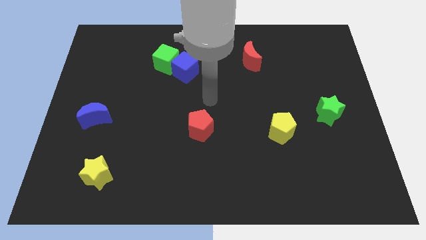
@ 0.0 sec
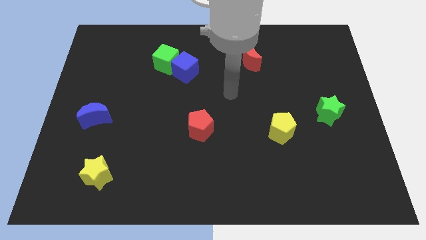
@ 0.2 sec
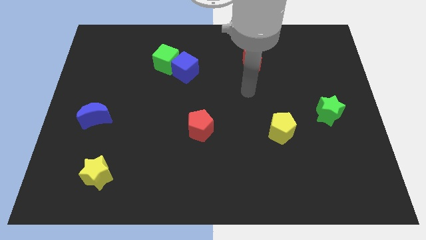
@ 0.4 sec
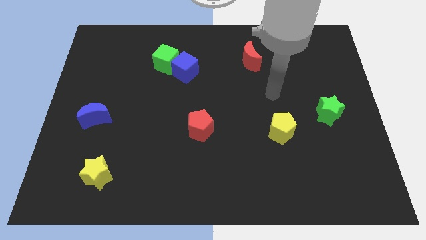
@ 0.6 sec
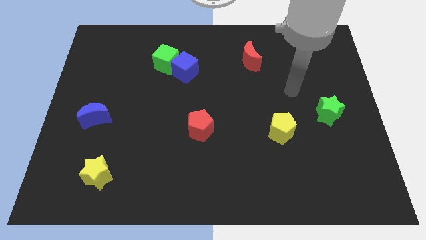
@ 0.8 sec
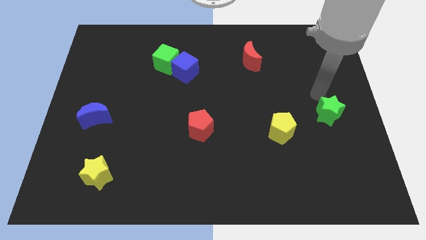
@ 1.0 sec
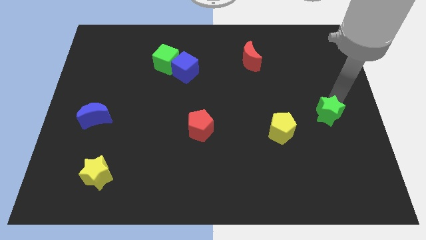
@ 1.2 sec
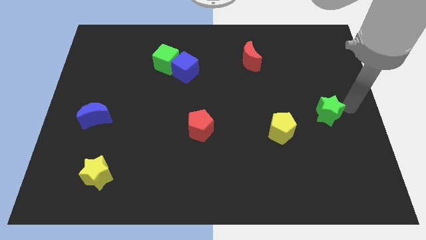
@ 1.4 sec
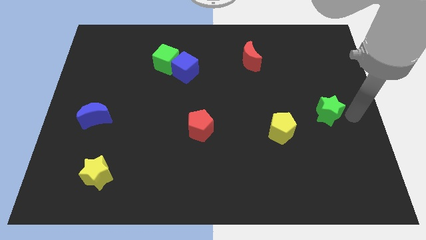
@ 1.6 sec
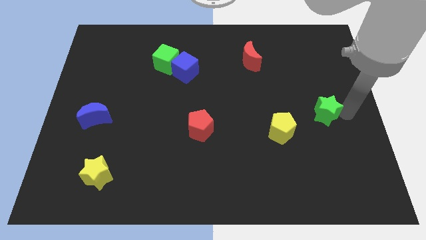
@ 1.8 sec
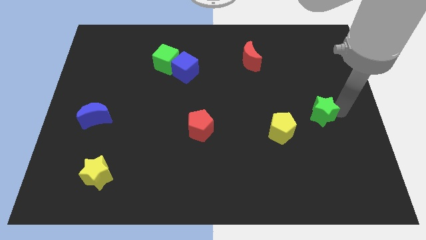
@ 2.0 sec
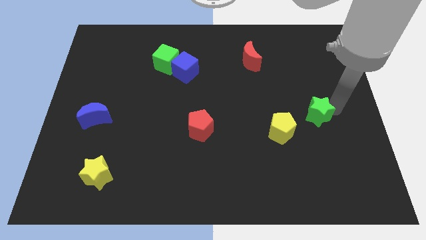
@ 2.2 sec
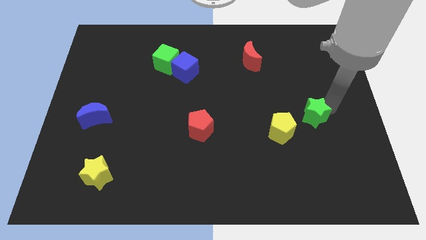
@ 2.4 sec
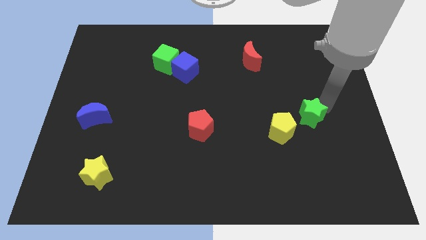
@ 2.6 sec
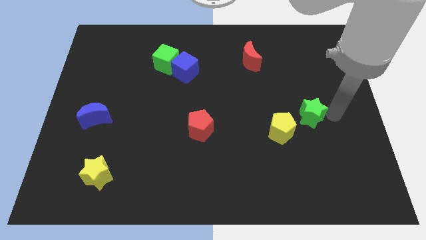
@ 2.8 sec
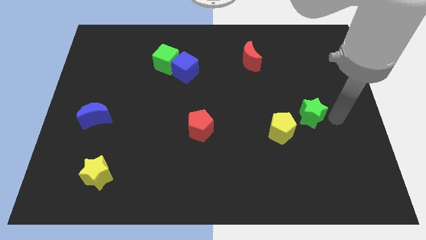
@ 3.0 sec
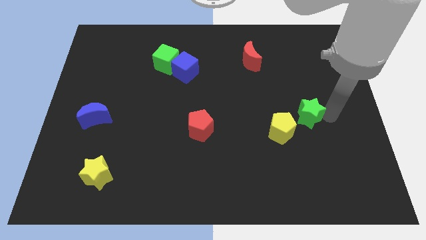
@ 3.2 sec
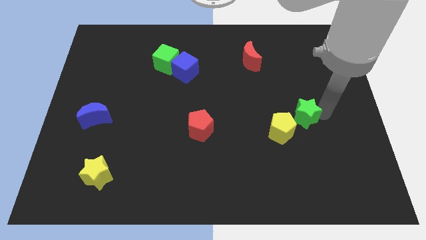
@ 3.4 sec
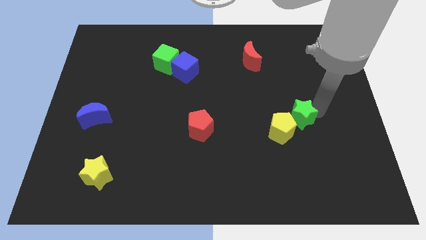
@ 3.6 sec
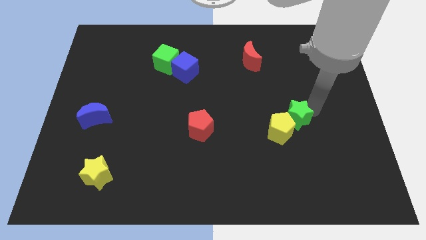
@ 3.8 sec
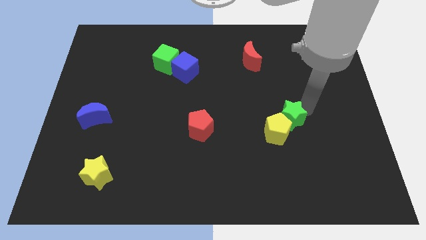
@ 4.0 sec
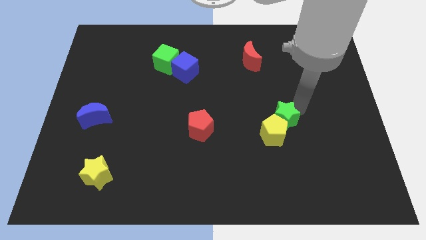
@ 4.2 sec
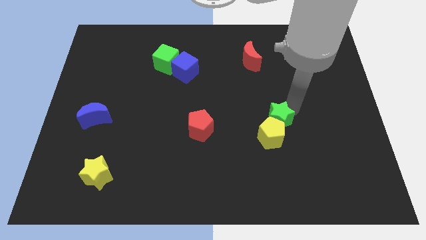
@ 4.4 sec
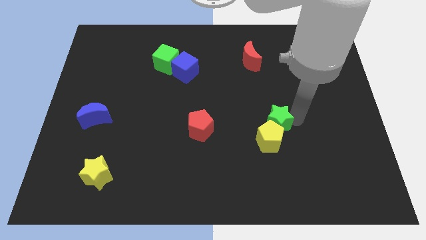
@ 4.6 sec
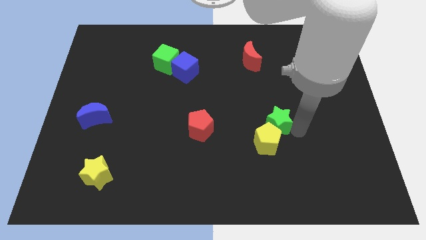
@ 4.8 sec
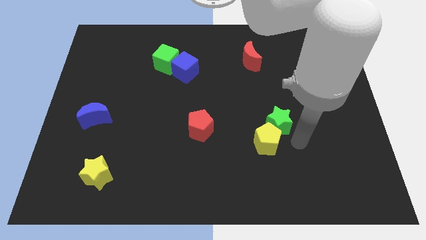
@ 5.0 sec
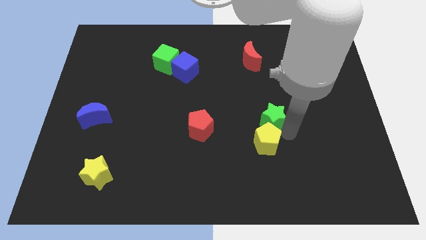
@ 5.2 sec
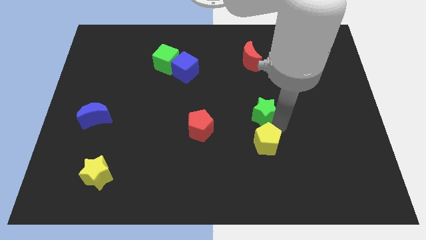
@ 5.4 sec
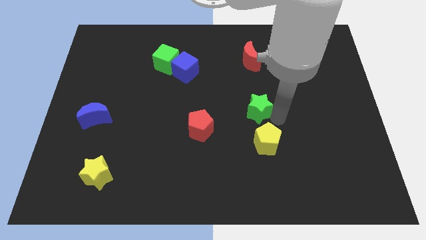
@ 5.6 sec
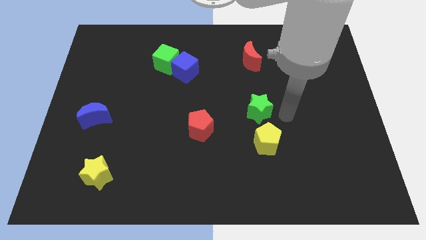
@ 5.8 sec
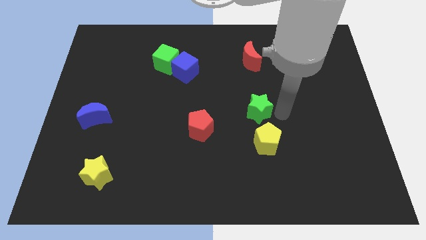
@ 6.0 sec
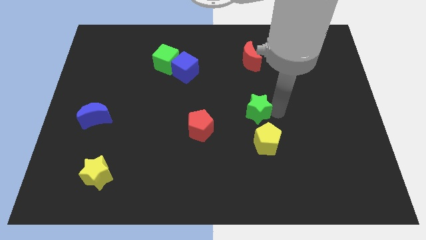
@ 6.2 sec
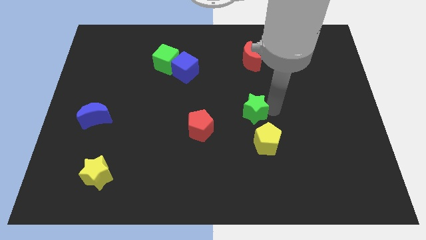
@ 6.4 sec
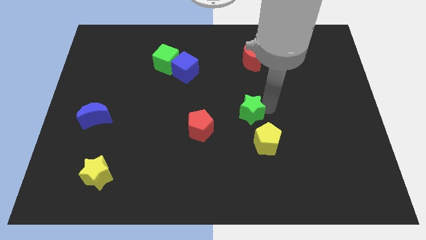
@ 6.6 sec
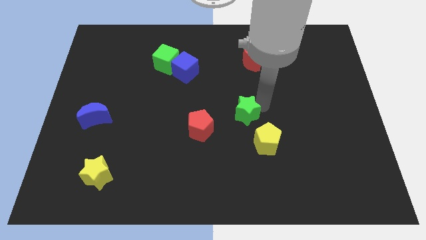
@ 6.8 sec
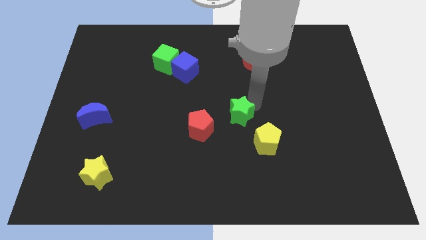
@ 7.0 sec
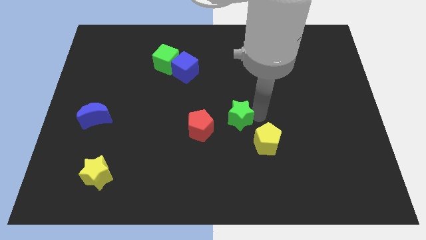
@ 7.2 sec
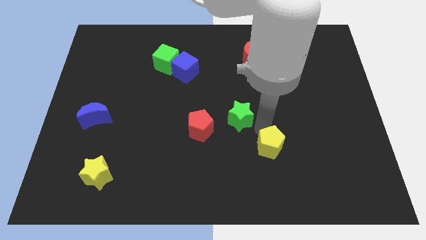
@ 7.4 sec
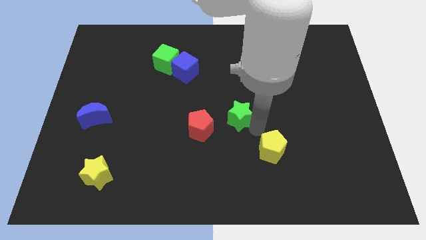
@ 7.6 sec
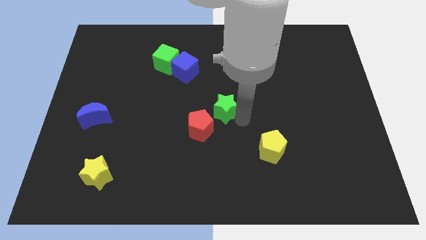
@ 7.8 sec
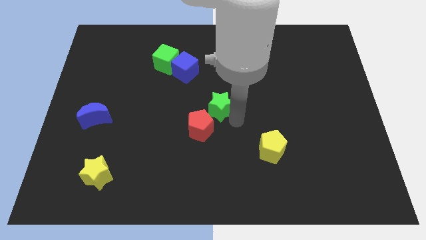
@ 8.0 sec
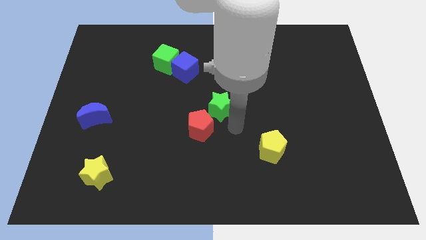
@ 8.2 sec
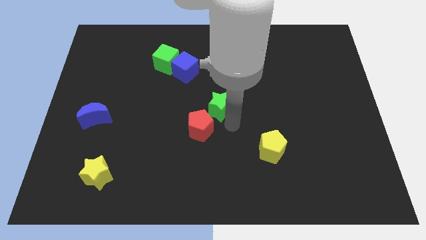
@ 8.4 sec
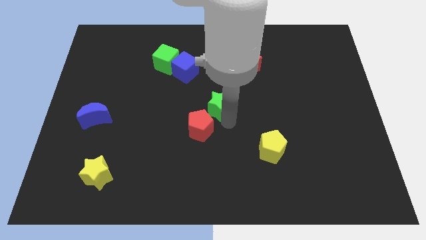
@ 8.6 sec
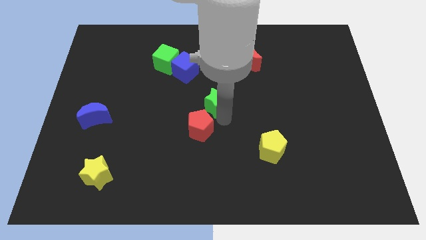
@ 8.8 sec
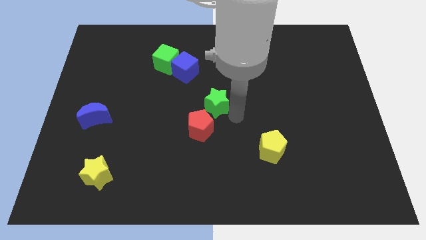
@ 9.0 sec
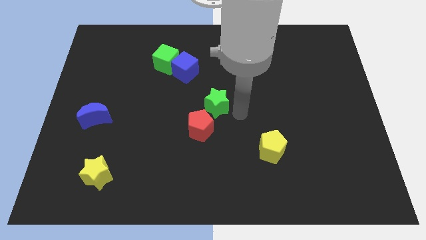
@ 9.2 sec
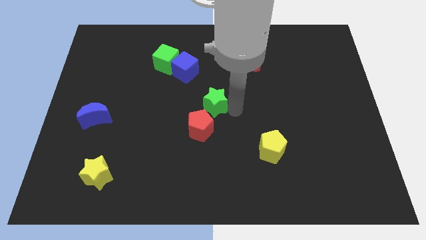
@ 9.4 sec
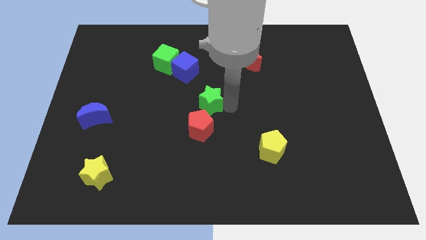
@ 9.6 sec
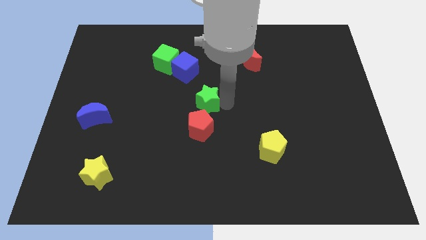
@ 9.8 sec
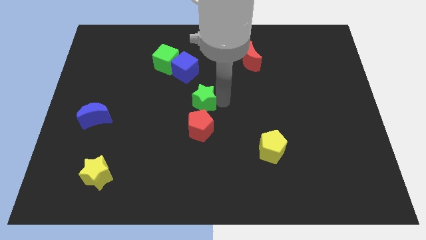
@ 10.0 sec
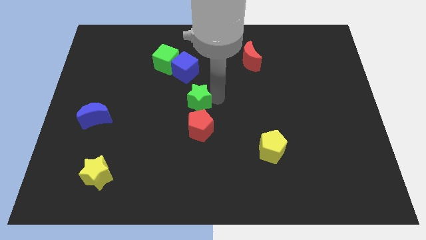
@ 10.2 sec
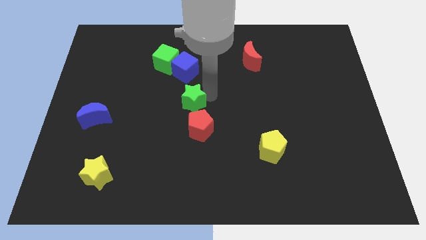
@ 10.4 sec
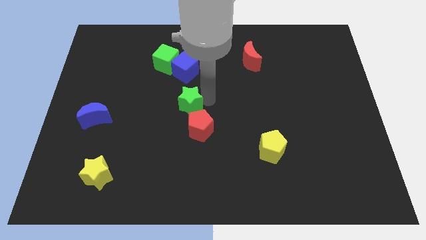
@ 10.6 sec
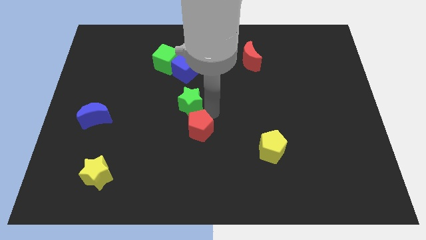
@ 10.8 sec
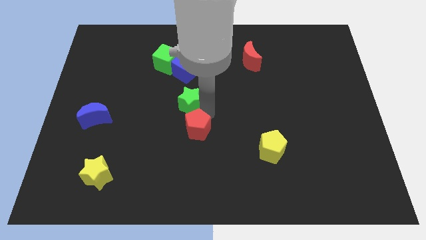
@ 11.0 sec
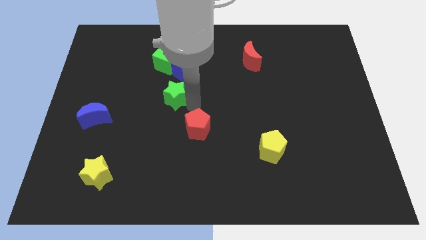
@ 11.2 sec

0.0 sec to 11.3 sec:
move the green star to the bottom left side of the blue cube

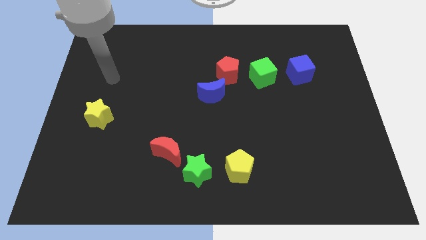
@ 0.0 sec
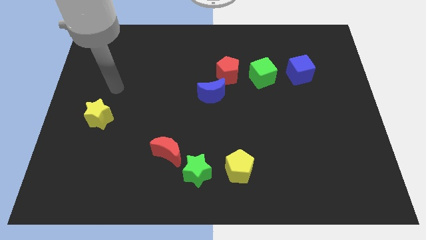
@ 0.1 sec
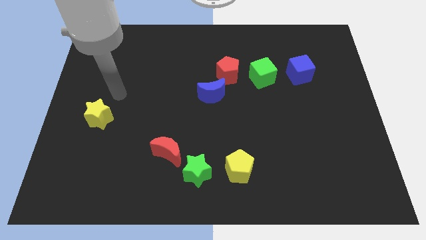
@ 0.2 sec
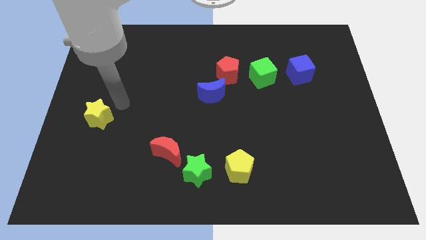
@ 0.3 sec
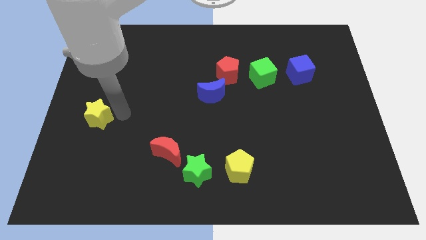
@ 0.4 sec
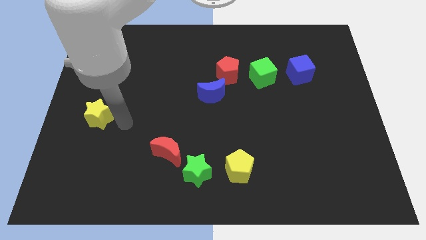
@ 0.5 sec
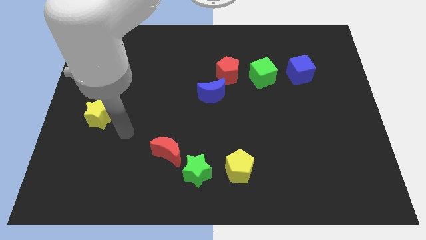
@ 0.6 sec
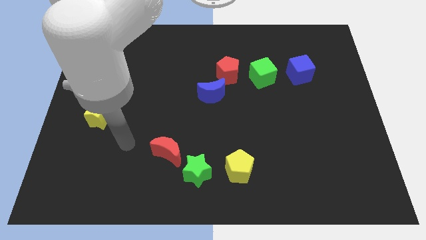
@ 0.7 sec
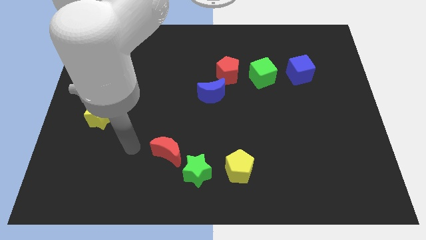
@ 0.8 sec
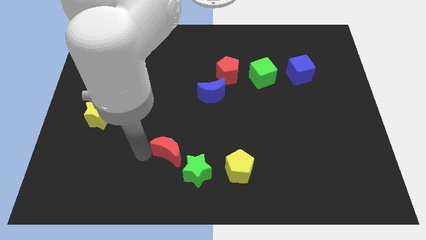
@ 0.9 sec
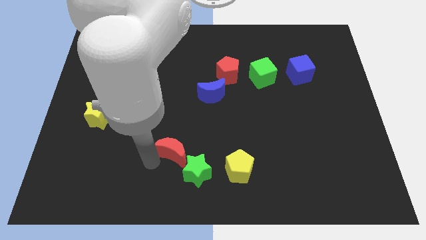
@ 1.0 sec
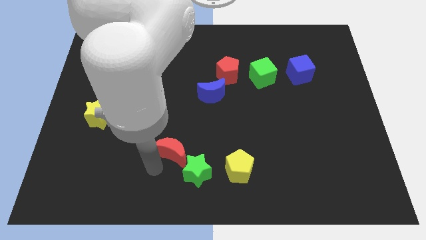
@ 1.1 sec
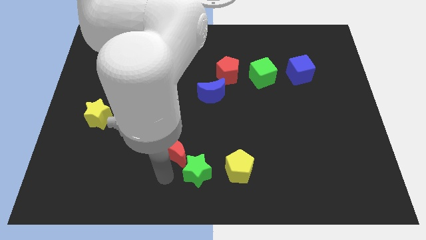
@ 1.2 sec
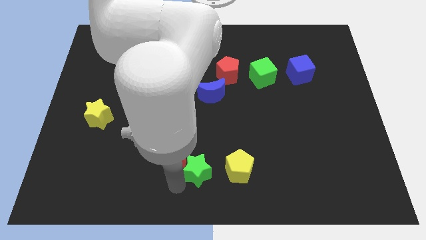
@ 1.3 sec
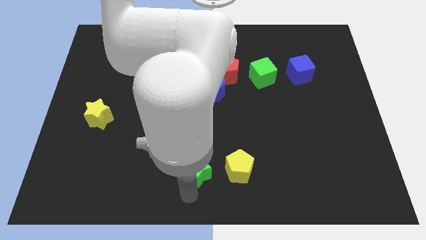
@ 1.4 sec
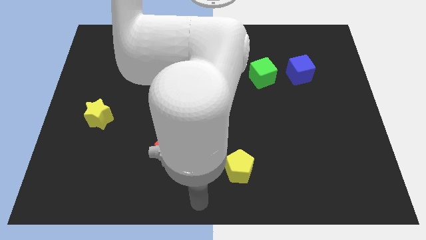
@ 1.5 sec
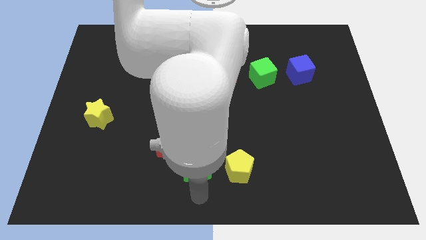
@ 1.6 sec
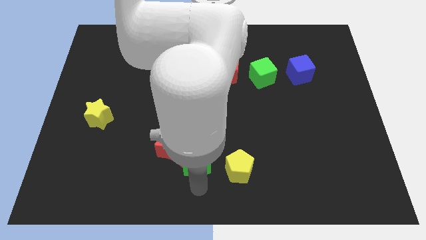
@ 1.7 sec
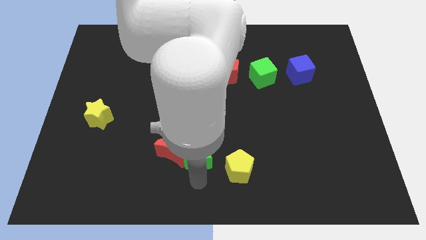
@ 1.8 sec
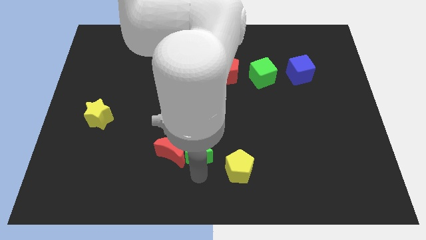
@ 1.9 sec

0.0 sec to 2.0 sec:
put the green star to the top right of the red moon
